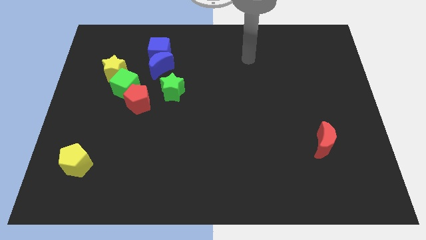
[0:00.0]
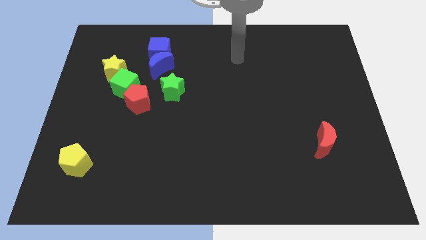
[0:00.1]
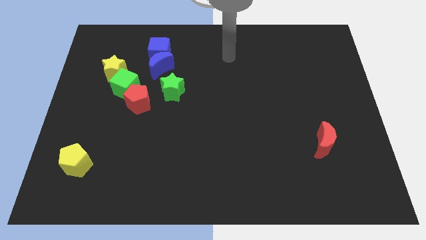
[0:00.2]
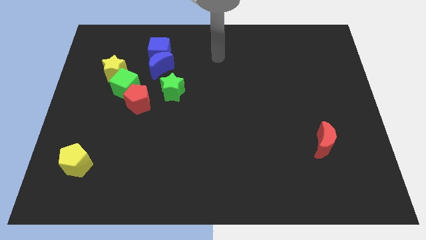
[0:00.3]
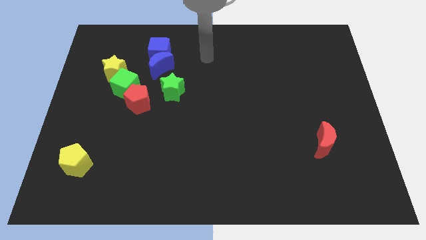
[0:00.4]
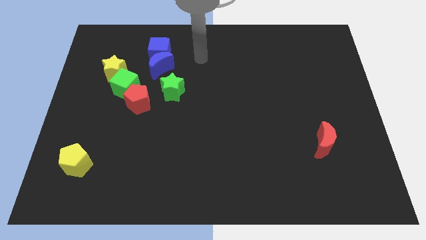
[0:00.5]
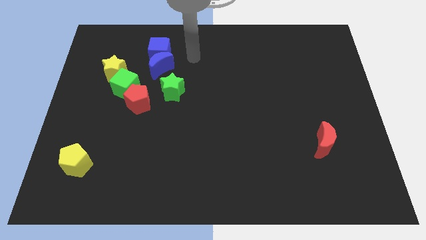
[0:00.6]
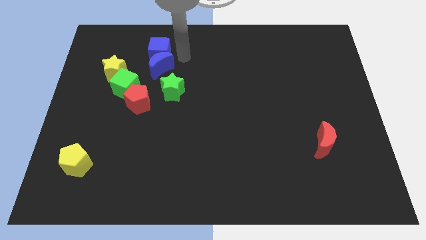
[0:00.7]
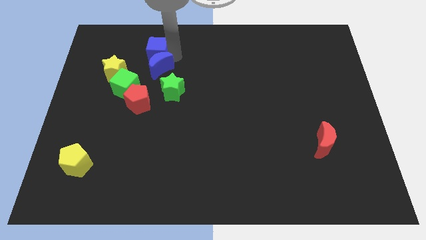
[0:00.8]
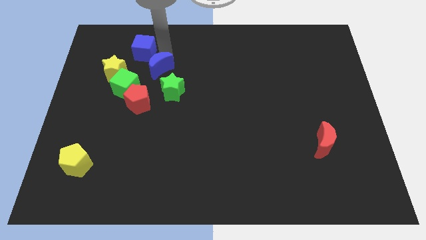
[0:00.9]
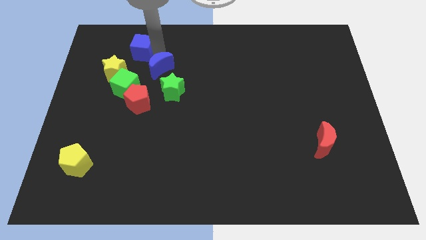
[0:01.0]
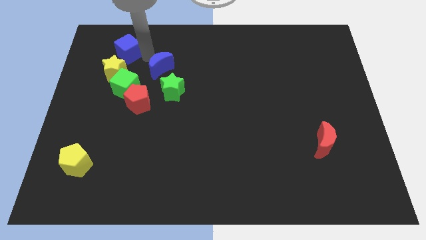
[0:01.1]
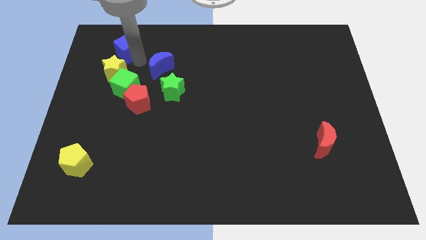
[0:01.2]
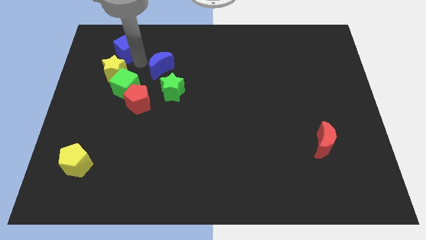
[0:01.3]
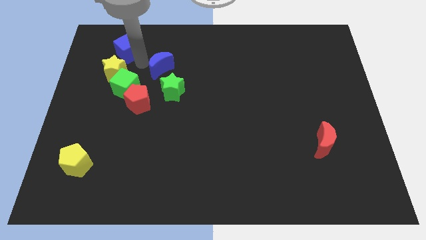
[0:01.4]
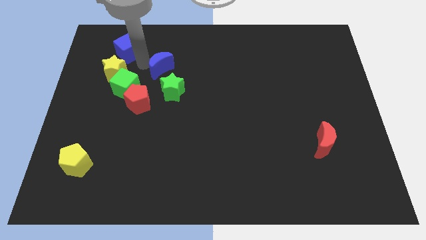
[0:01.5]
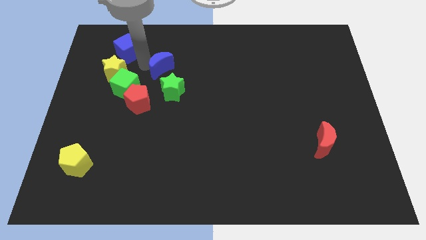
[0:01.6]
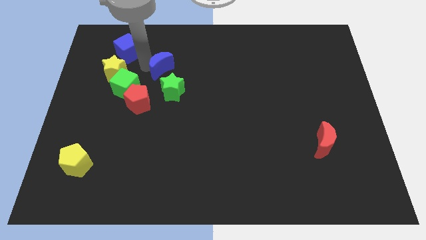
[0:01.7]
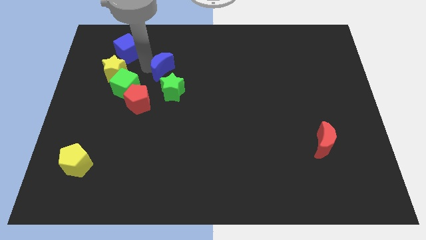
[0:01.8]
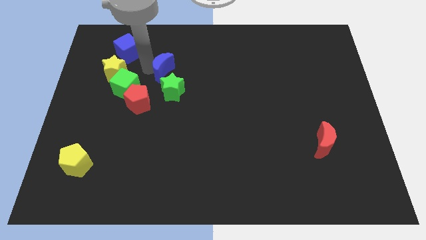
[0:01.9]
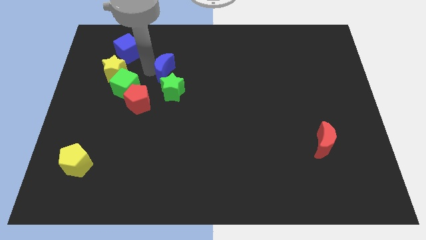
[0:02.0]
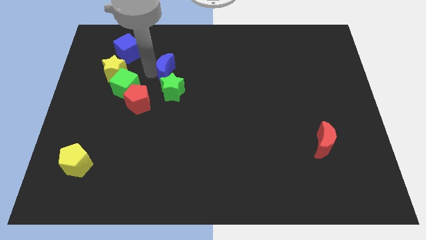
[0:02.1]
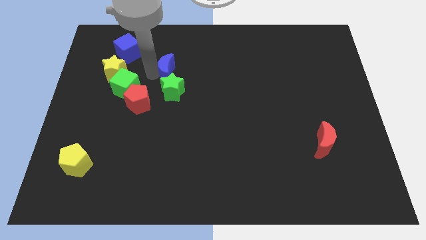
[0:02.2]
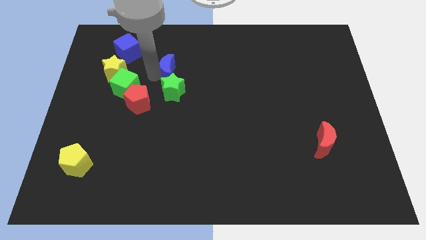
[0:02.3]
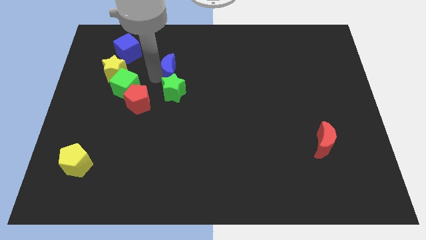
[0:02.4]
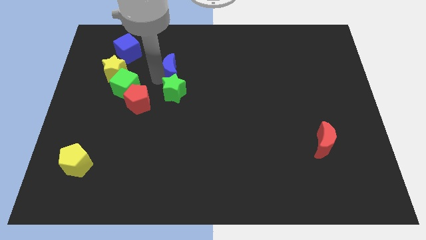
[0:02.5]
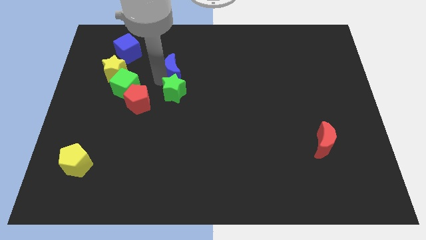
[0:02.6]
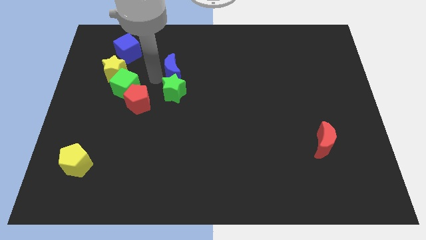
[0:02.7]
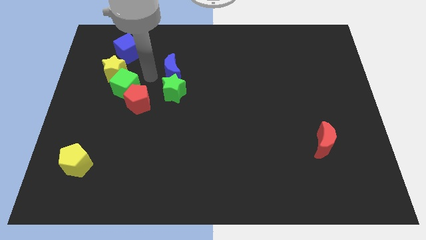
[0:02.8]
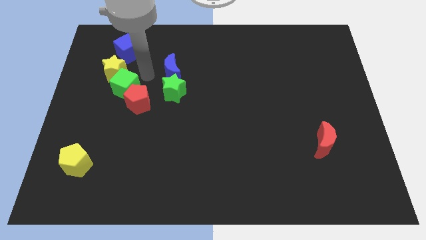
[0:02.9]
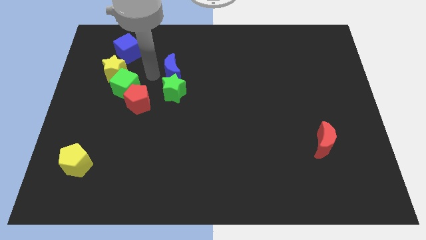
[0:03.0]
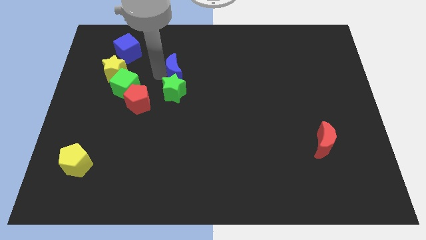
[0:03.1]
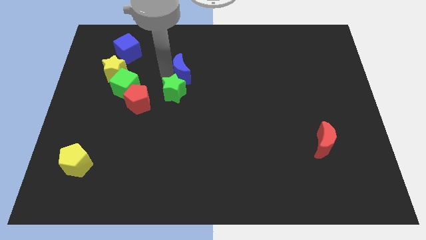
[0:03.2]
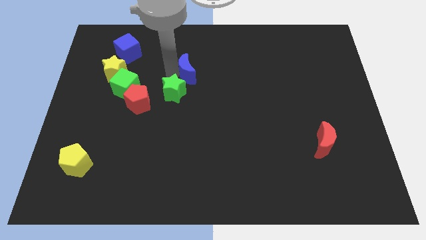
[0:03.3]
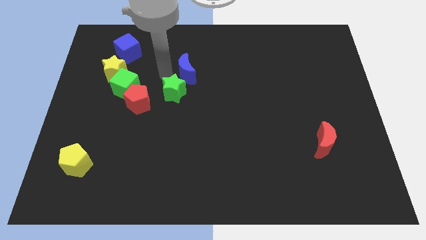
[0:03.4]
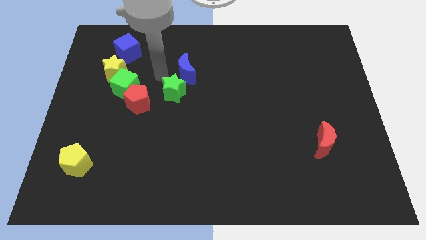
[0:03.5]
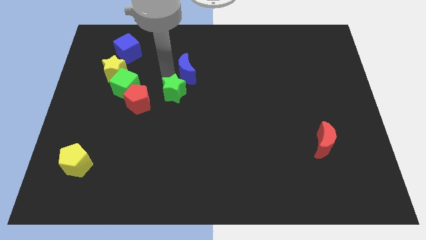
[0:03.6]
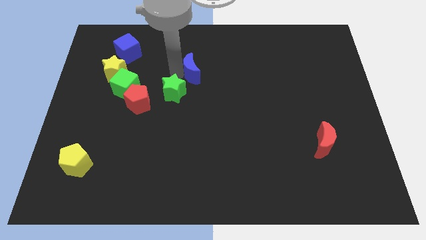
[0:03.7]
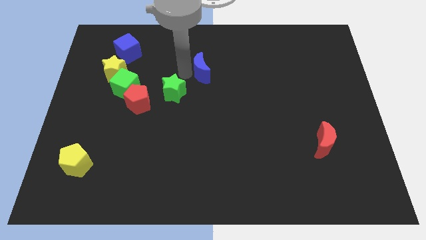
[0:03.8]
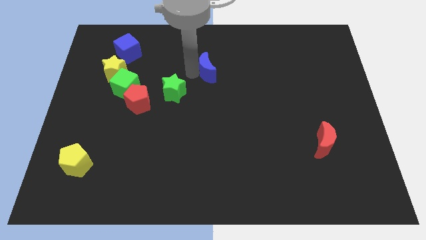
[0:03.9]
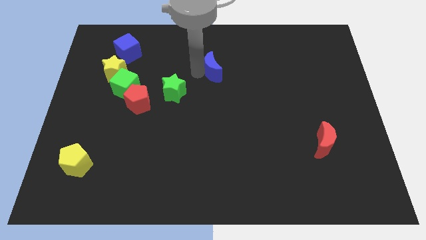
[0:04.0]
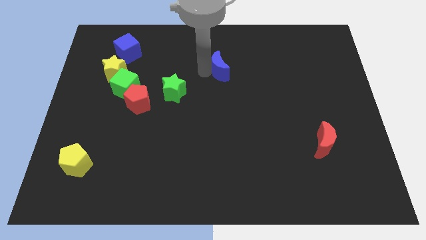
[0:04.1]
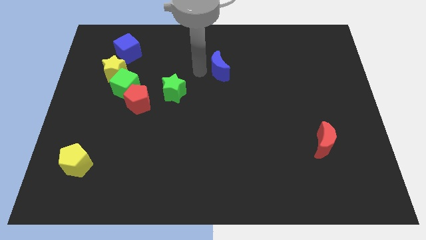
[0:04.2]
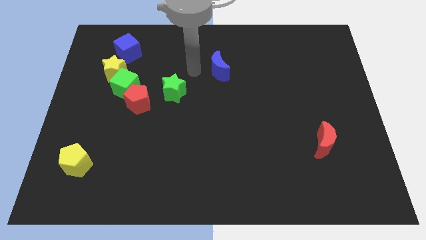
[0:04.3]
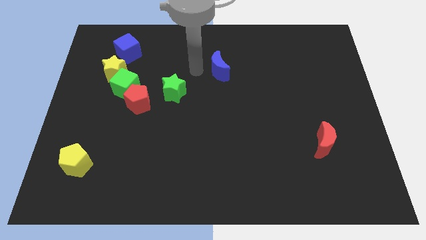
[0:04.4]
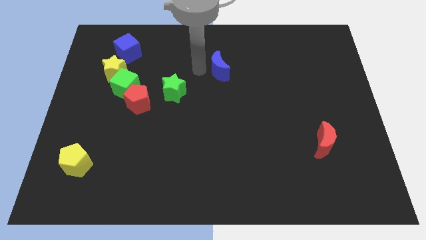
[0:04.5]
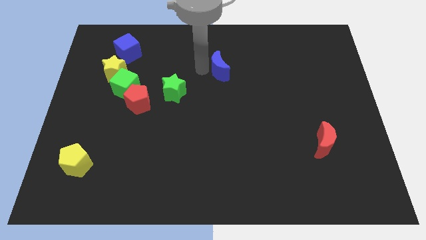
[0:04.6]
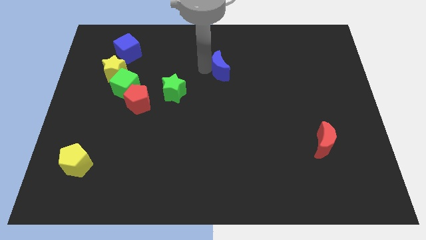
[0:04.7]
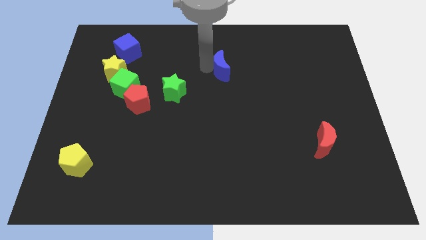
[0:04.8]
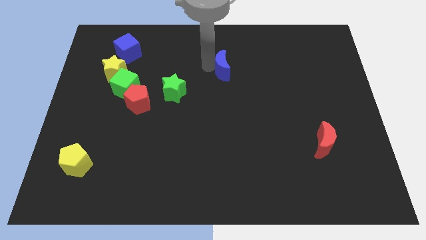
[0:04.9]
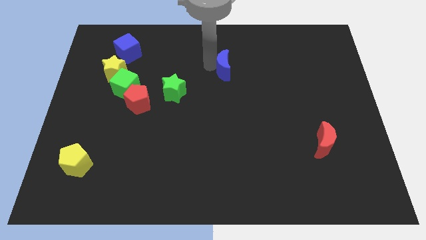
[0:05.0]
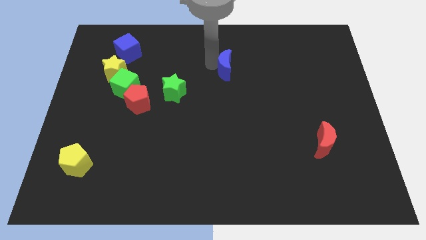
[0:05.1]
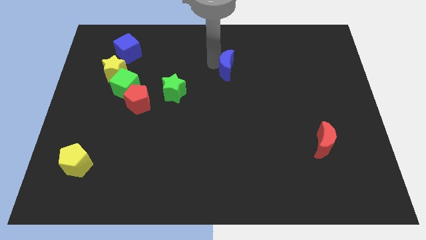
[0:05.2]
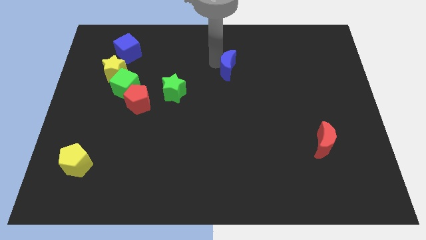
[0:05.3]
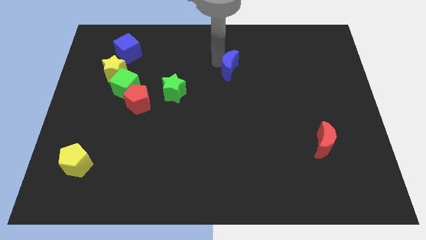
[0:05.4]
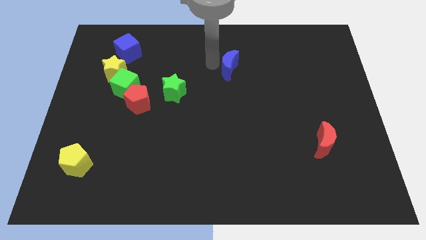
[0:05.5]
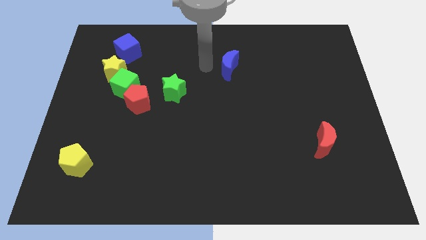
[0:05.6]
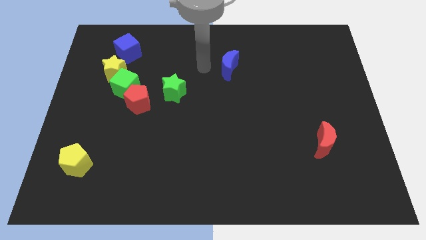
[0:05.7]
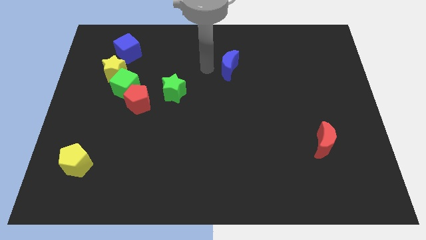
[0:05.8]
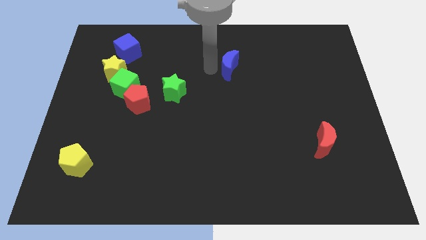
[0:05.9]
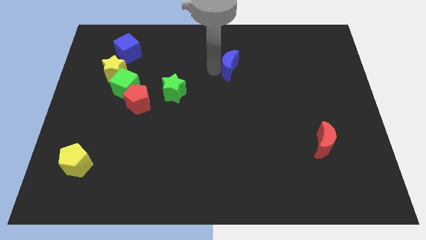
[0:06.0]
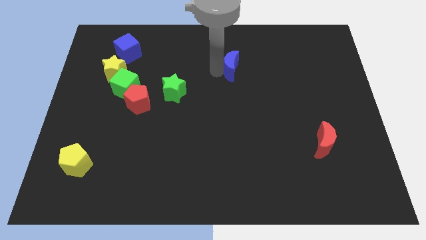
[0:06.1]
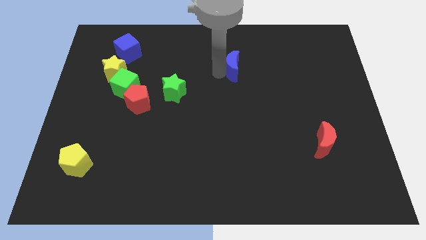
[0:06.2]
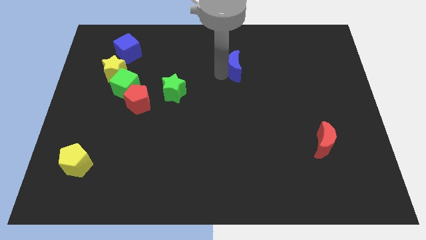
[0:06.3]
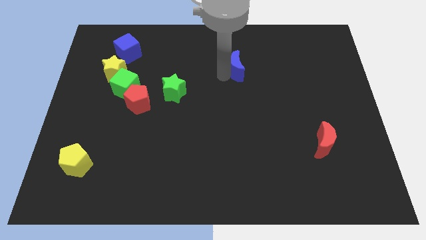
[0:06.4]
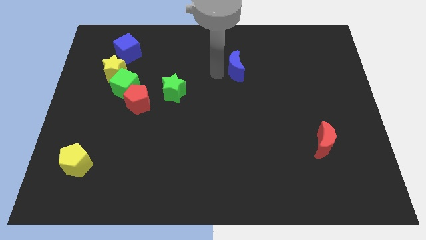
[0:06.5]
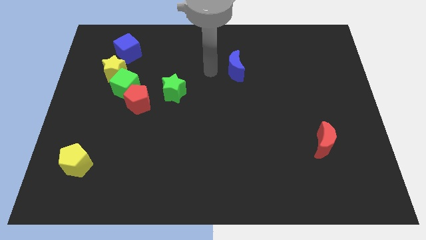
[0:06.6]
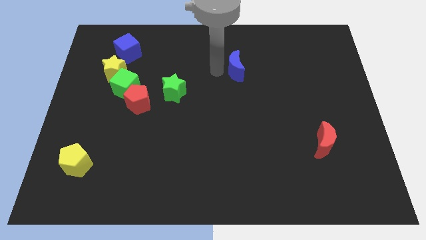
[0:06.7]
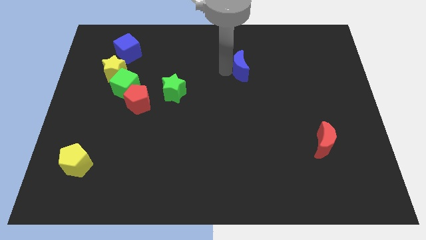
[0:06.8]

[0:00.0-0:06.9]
move the blue moon right

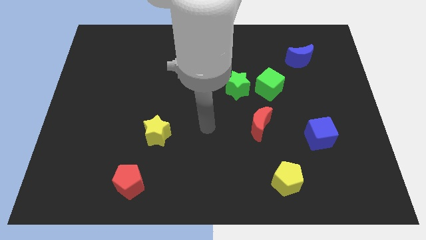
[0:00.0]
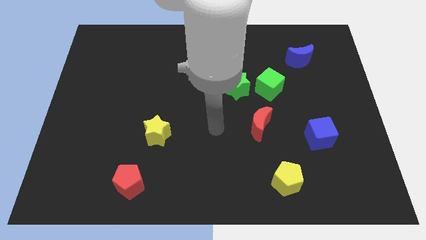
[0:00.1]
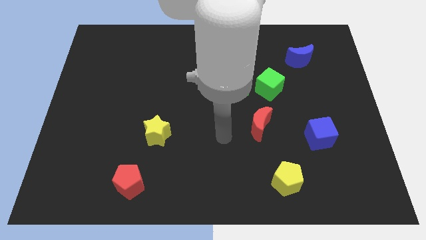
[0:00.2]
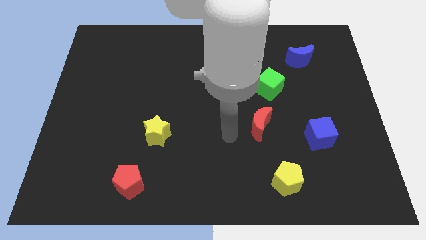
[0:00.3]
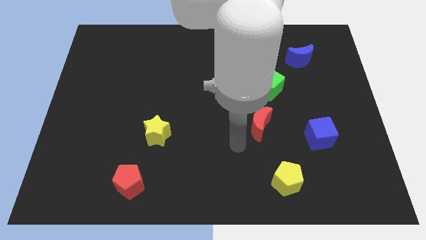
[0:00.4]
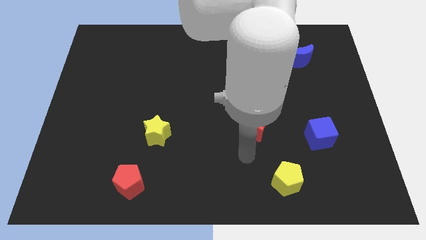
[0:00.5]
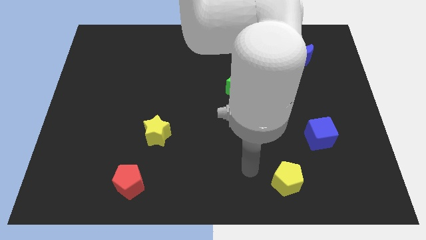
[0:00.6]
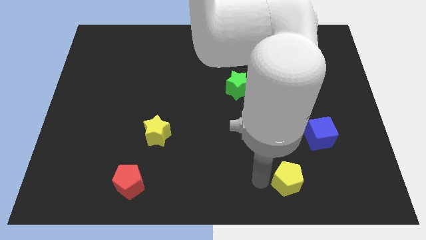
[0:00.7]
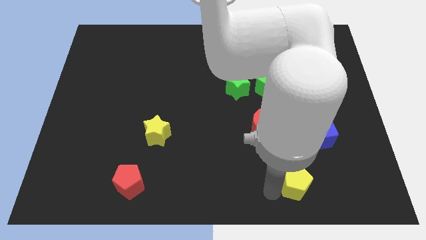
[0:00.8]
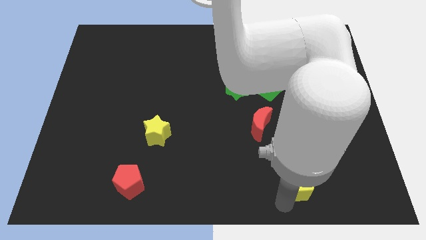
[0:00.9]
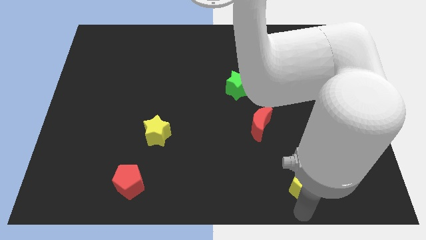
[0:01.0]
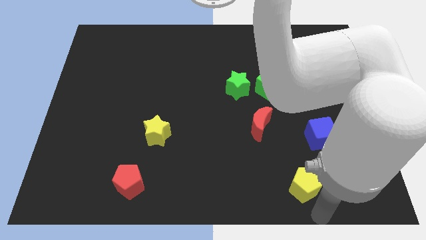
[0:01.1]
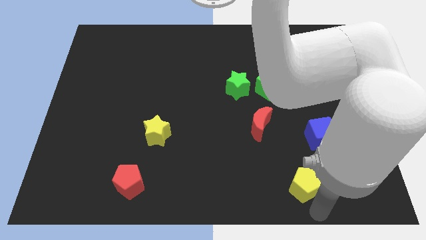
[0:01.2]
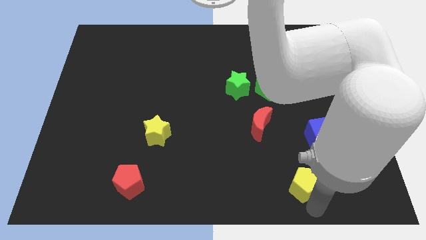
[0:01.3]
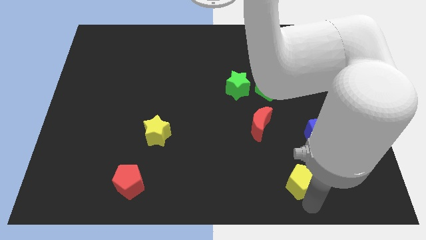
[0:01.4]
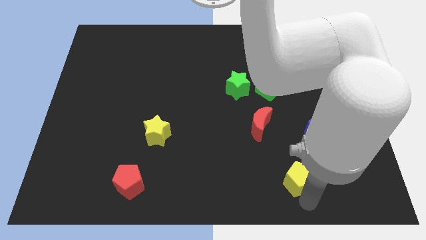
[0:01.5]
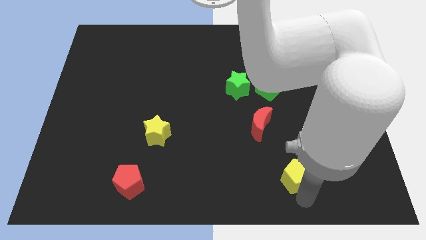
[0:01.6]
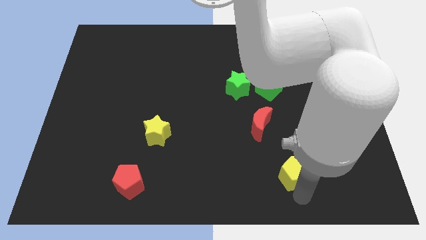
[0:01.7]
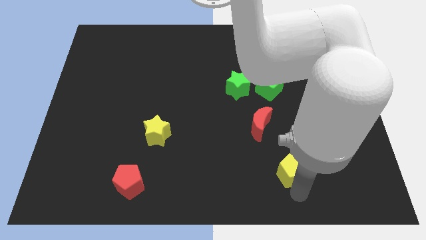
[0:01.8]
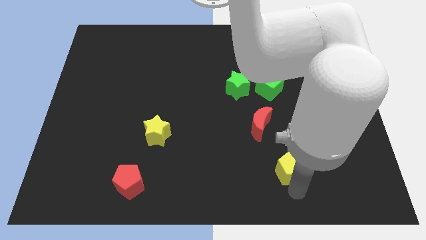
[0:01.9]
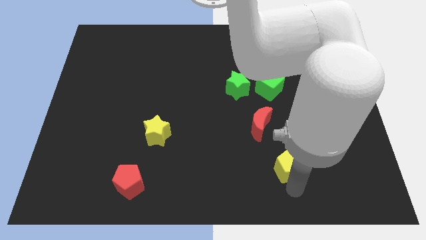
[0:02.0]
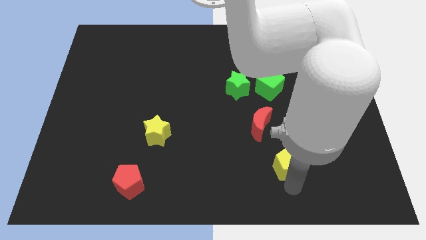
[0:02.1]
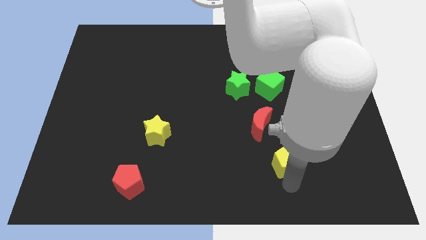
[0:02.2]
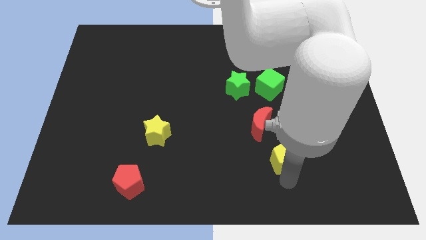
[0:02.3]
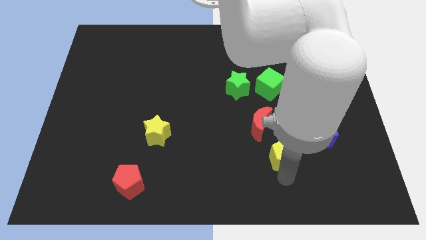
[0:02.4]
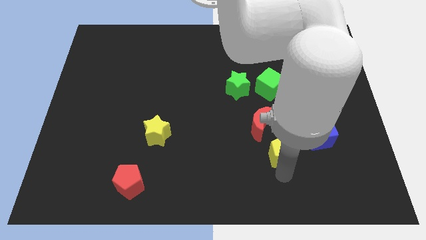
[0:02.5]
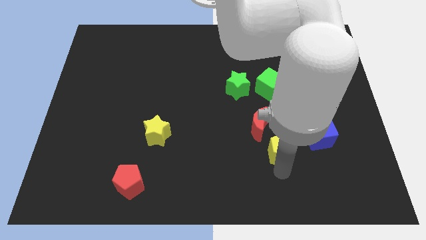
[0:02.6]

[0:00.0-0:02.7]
slide the yellow pentagon a little upwards
